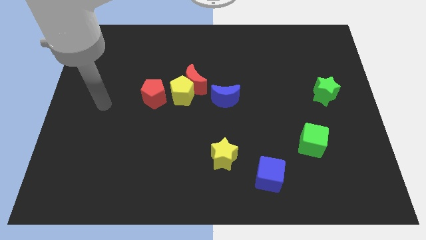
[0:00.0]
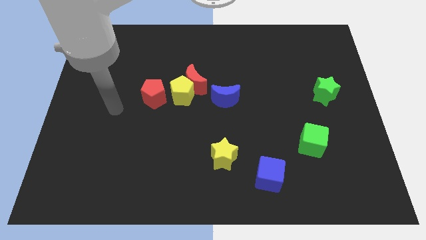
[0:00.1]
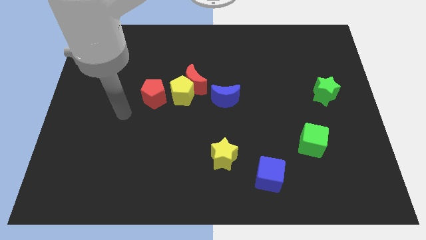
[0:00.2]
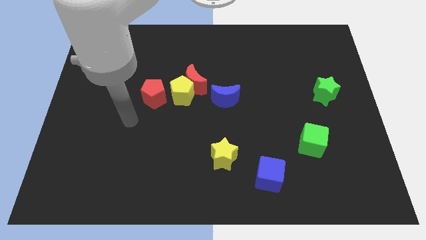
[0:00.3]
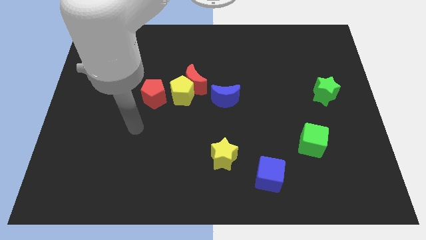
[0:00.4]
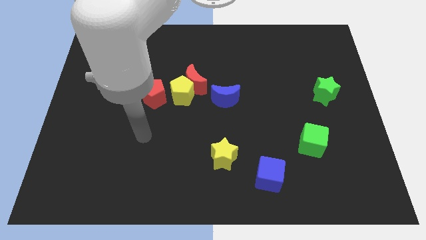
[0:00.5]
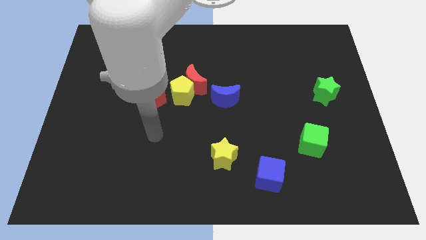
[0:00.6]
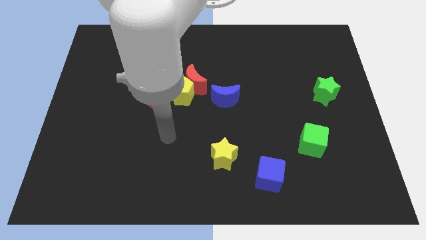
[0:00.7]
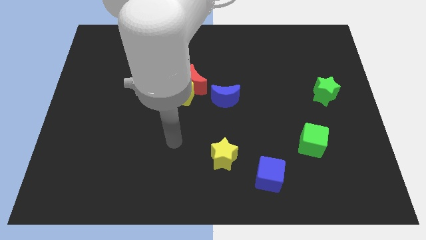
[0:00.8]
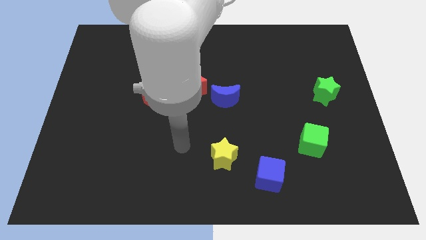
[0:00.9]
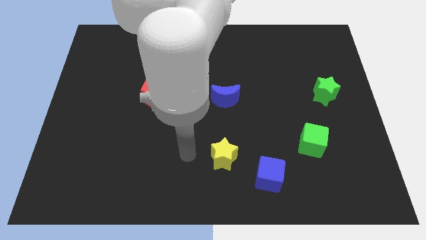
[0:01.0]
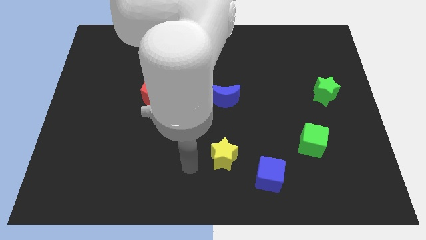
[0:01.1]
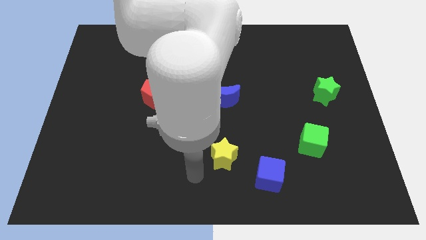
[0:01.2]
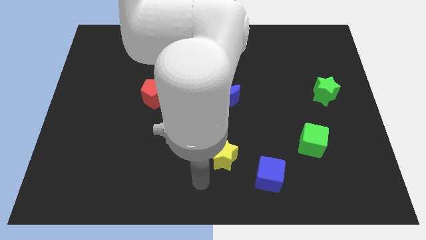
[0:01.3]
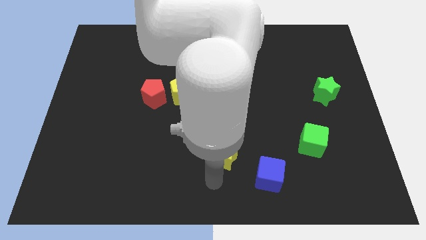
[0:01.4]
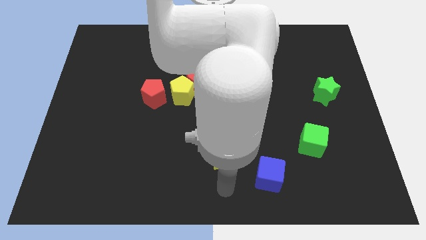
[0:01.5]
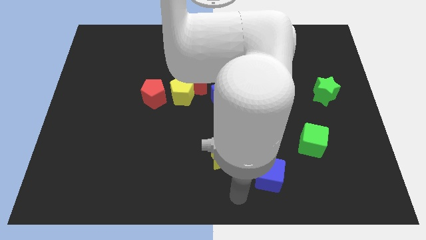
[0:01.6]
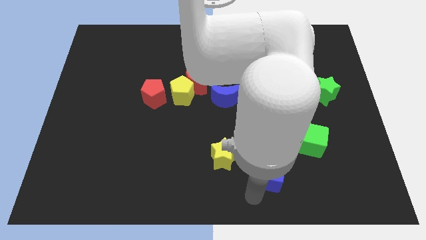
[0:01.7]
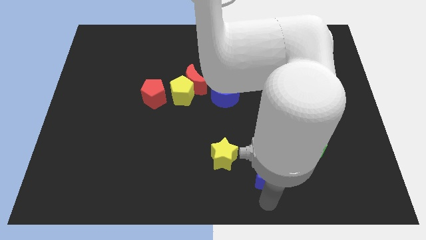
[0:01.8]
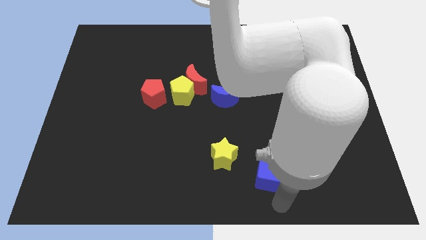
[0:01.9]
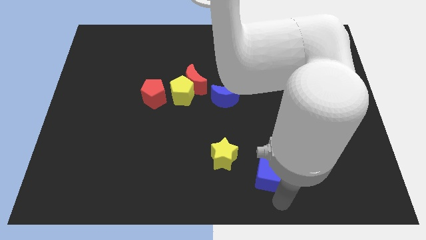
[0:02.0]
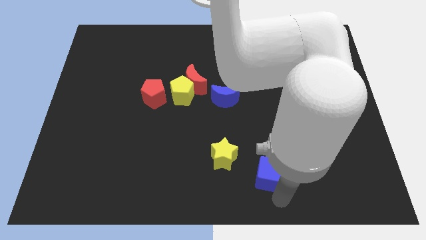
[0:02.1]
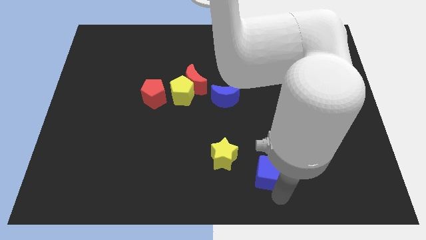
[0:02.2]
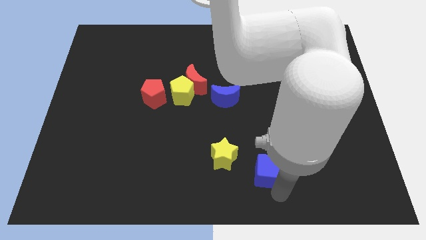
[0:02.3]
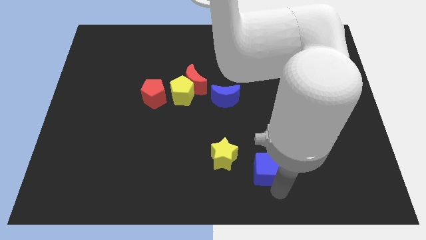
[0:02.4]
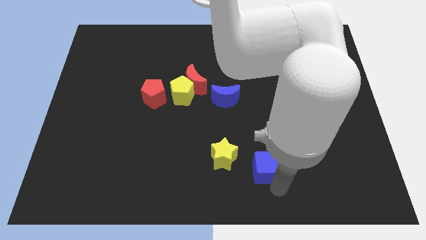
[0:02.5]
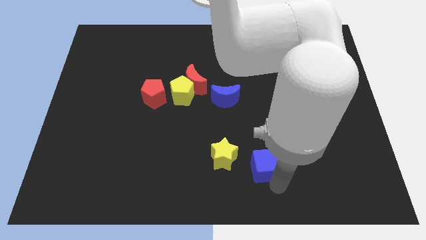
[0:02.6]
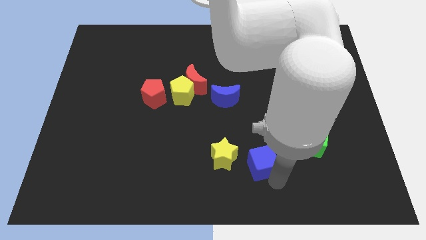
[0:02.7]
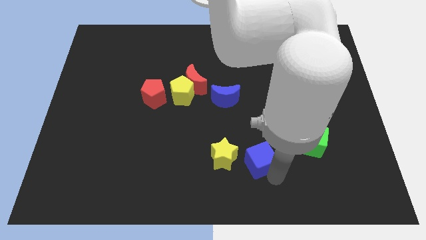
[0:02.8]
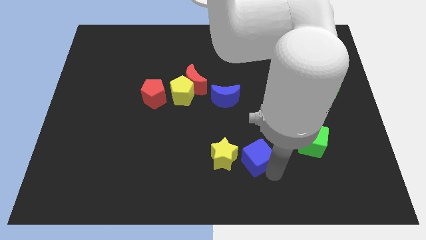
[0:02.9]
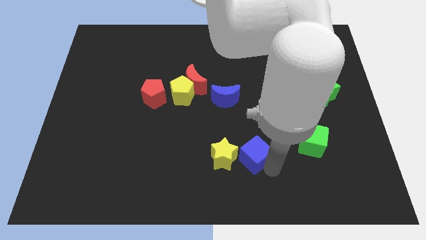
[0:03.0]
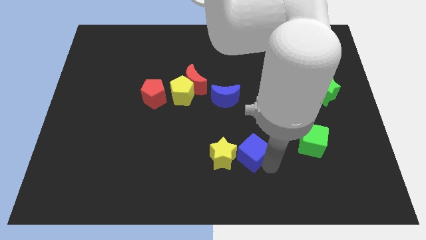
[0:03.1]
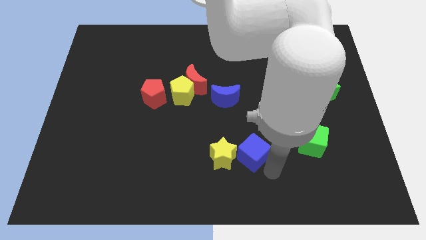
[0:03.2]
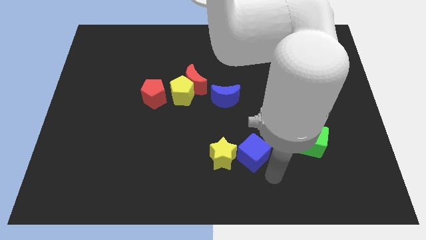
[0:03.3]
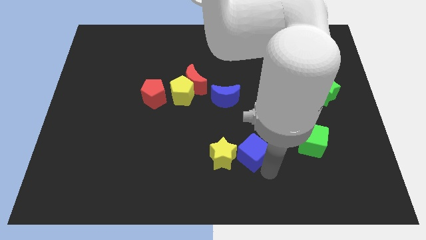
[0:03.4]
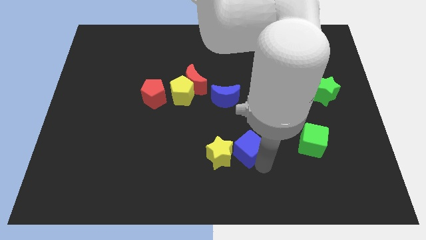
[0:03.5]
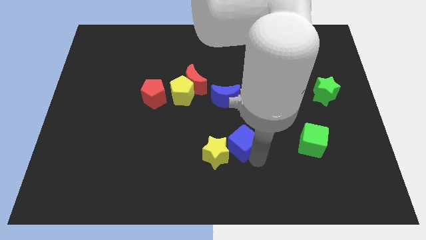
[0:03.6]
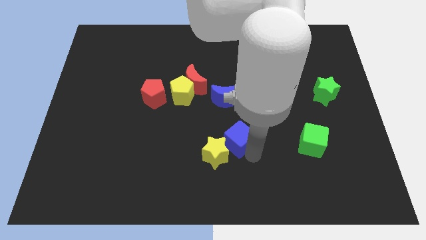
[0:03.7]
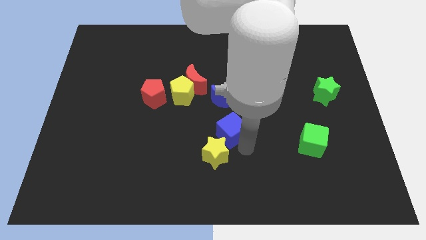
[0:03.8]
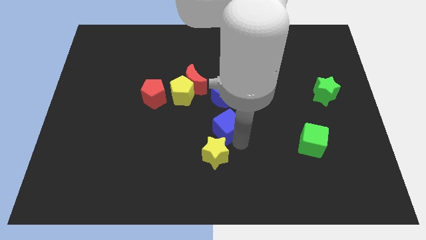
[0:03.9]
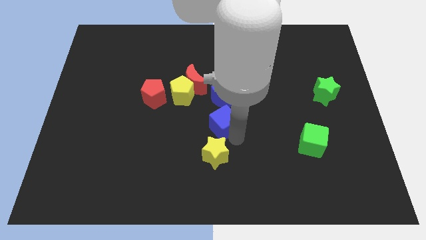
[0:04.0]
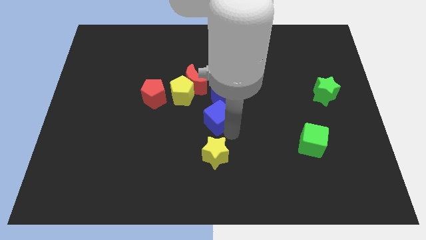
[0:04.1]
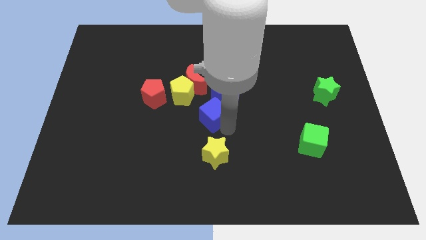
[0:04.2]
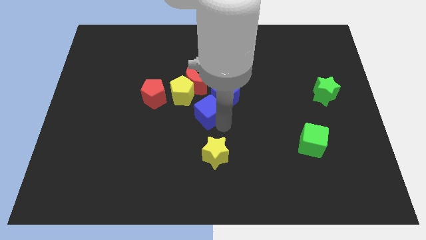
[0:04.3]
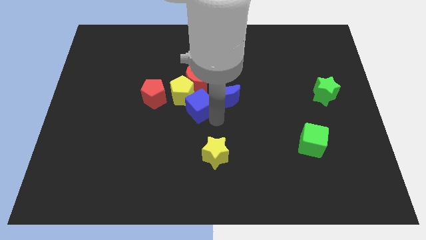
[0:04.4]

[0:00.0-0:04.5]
push the blue cube to the yellow pentagon

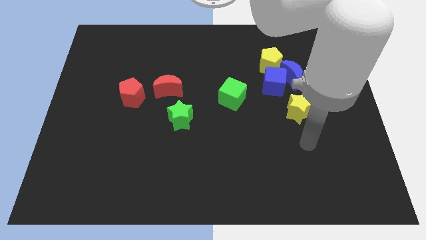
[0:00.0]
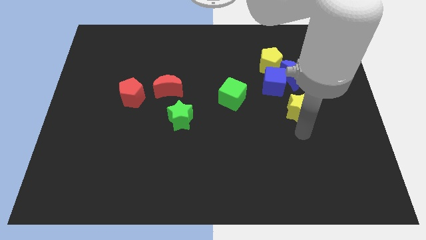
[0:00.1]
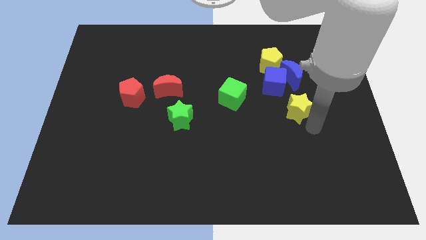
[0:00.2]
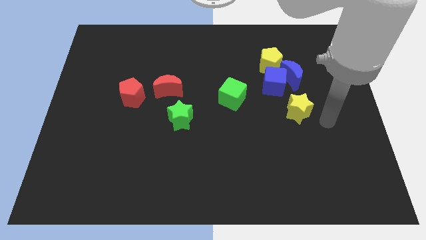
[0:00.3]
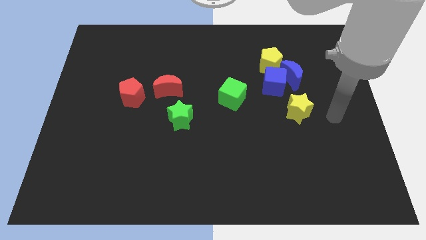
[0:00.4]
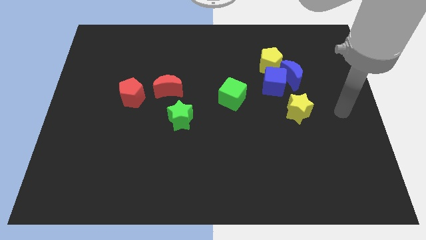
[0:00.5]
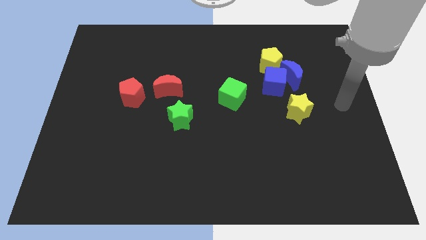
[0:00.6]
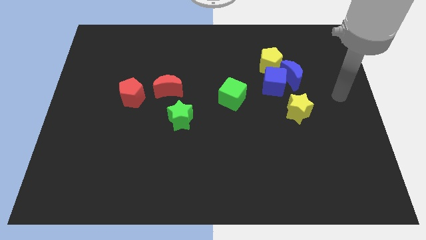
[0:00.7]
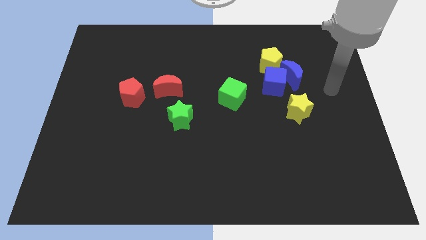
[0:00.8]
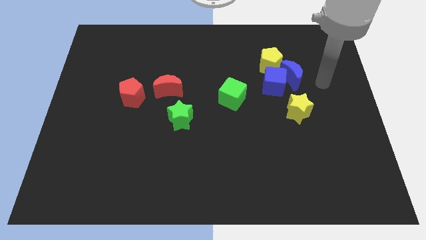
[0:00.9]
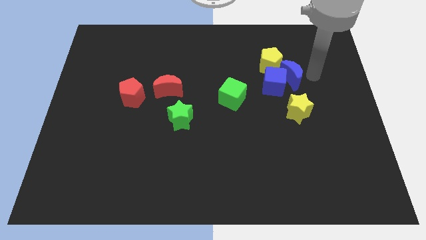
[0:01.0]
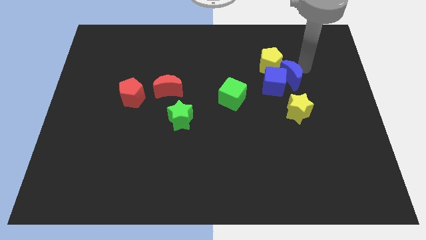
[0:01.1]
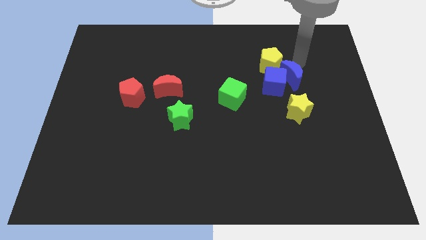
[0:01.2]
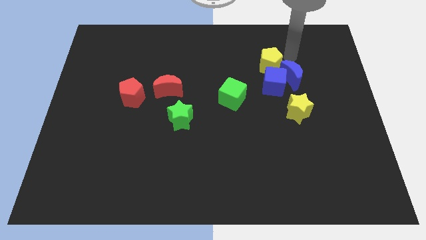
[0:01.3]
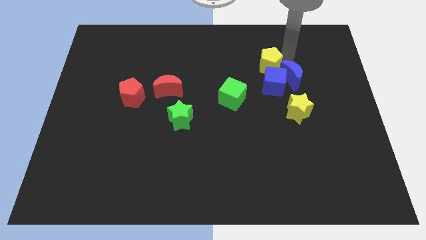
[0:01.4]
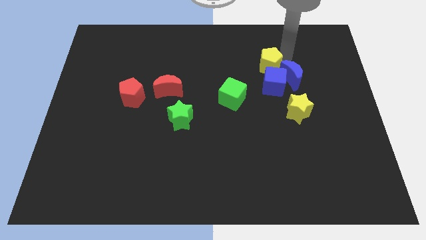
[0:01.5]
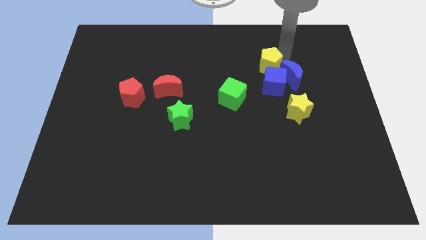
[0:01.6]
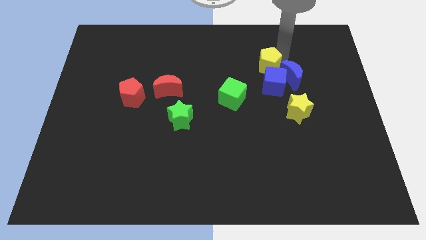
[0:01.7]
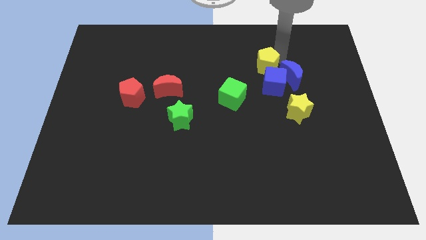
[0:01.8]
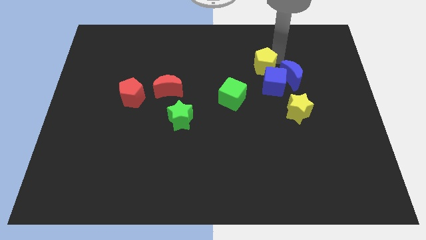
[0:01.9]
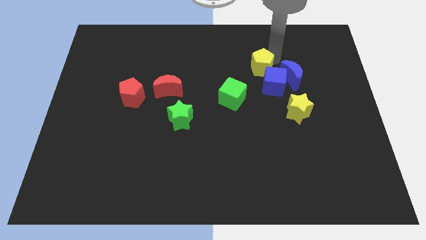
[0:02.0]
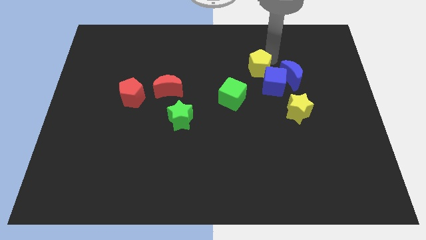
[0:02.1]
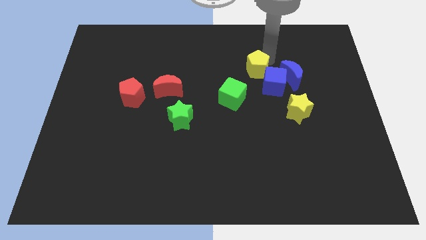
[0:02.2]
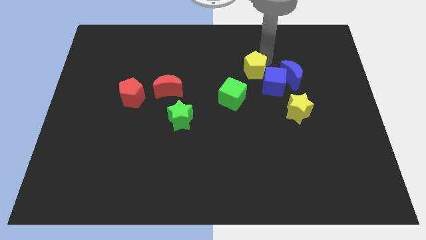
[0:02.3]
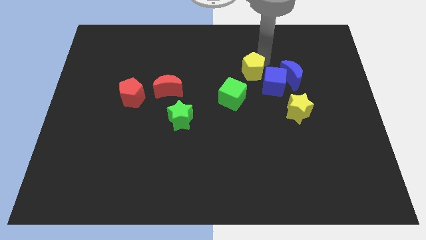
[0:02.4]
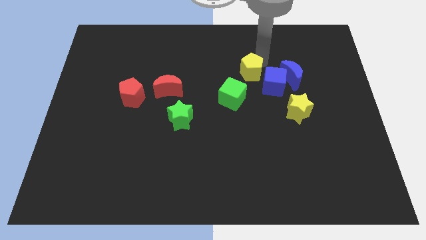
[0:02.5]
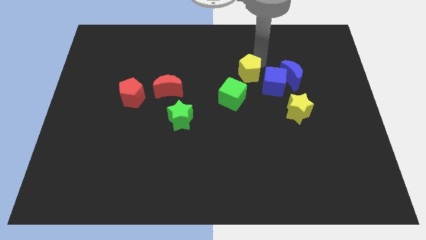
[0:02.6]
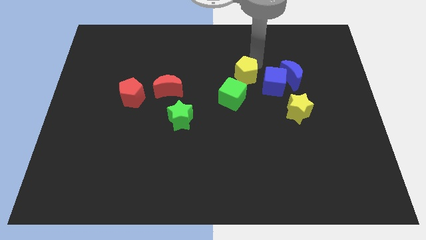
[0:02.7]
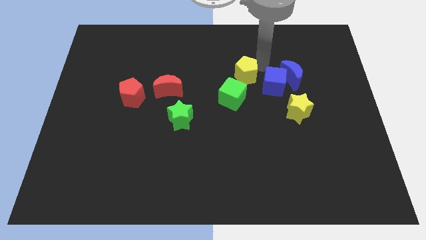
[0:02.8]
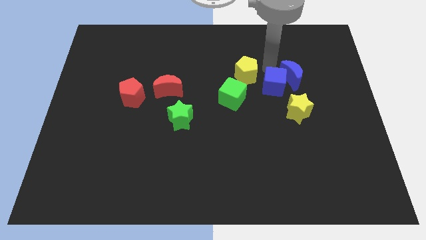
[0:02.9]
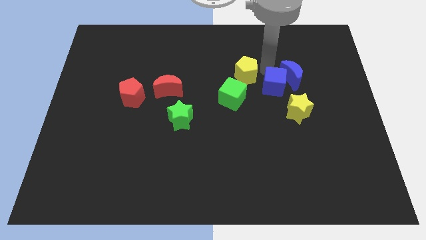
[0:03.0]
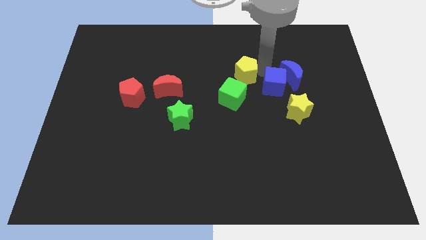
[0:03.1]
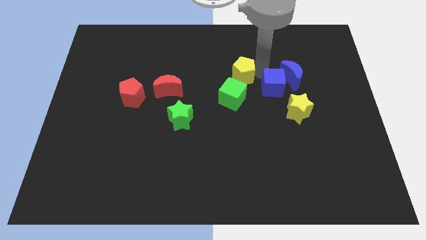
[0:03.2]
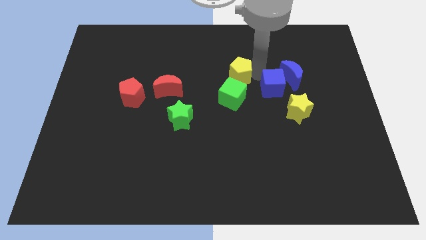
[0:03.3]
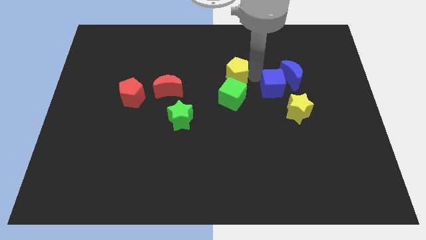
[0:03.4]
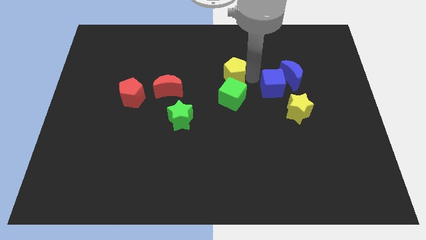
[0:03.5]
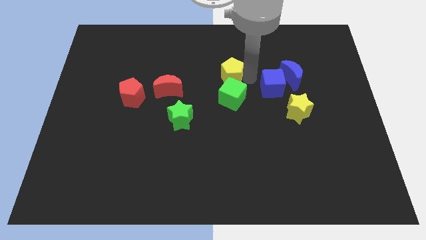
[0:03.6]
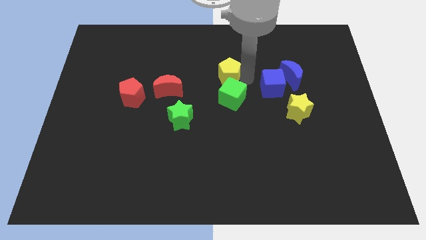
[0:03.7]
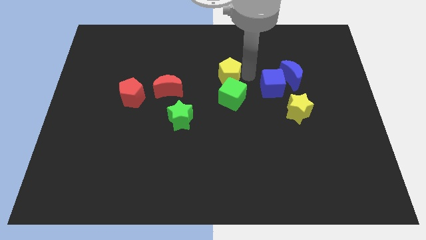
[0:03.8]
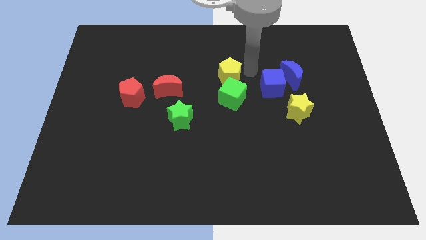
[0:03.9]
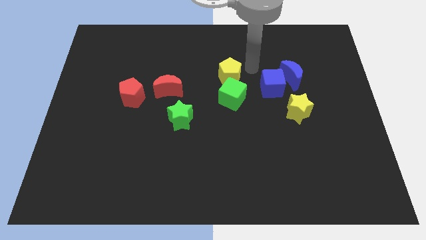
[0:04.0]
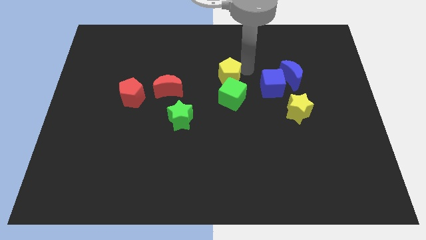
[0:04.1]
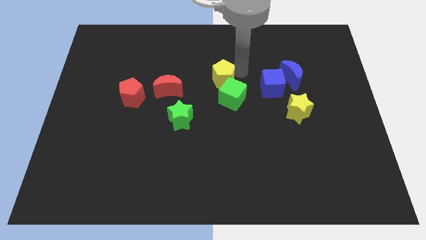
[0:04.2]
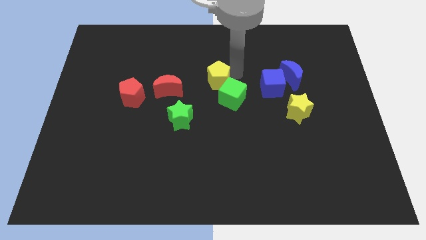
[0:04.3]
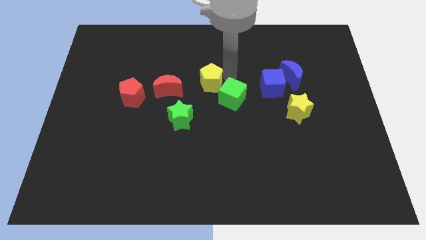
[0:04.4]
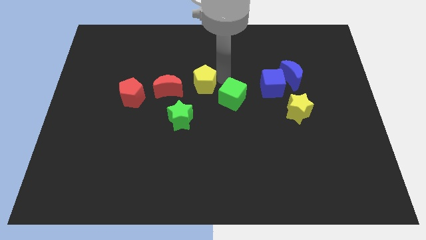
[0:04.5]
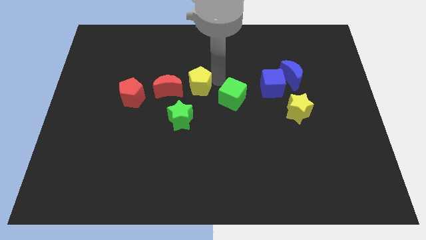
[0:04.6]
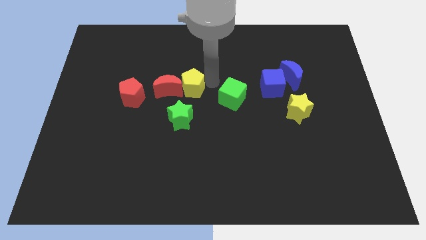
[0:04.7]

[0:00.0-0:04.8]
move the yellow pentagon next to the red moon
